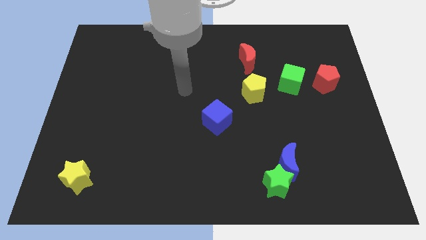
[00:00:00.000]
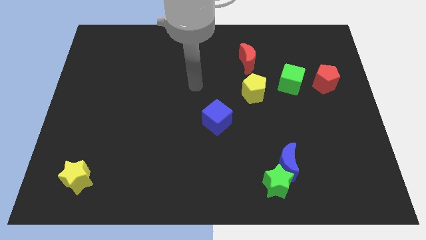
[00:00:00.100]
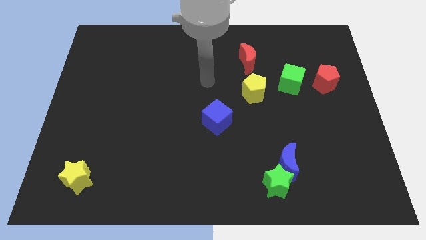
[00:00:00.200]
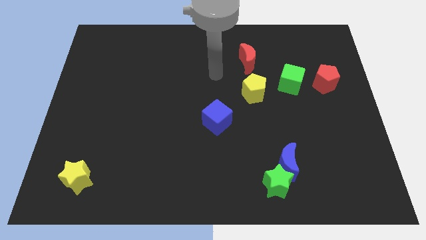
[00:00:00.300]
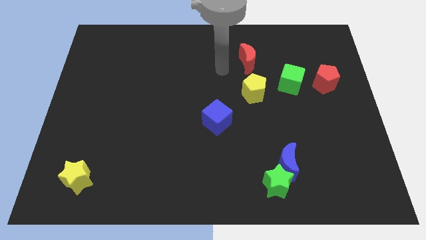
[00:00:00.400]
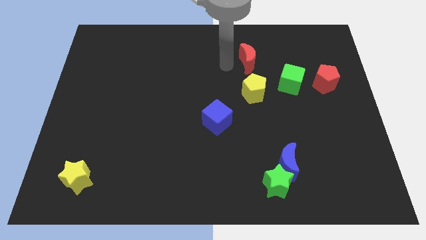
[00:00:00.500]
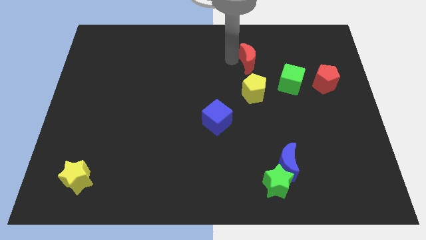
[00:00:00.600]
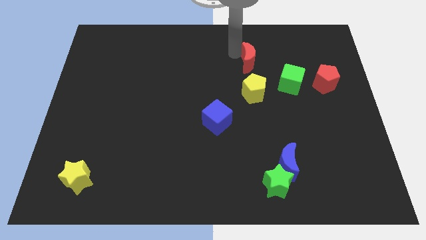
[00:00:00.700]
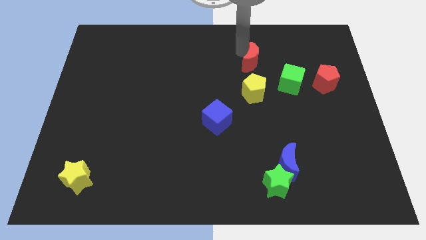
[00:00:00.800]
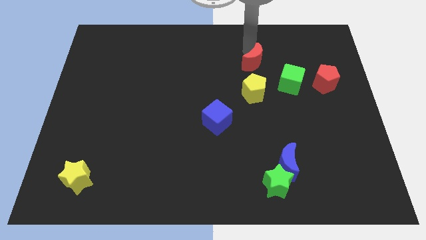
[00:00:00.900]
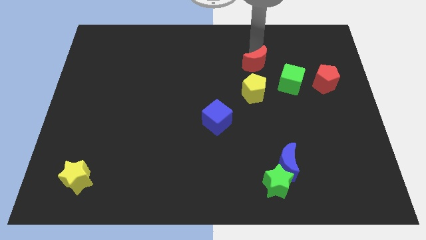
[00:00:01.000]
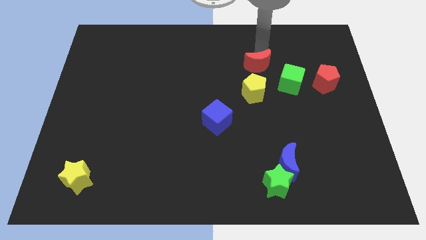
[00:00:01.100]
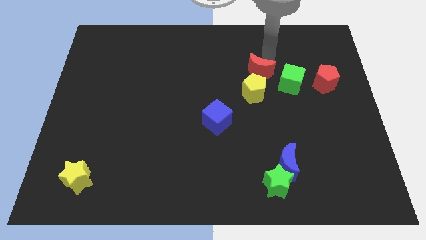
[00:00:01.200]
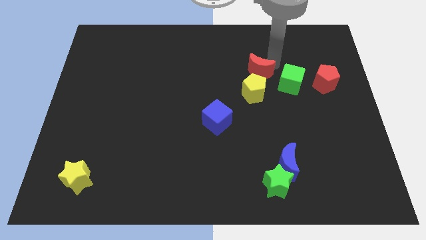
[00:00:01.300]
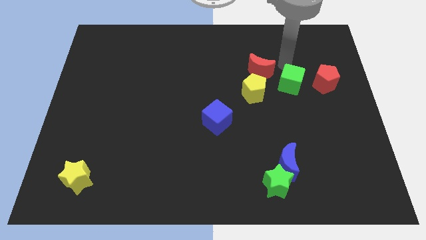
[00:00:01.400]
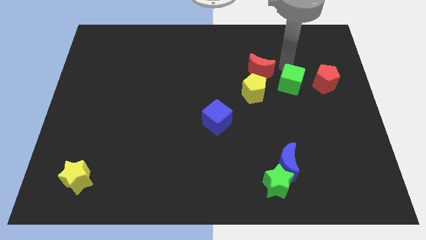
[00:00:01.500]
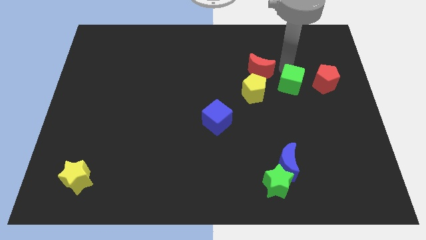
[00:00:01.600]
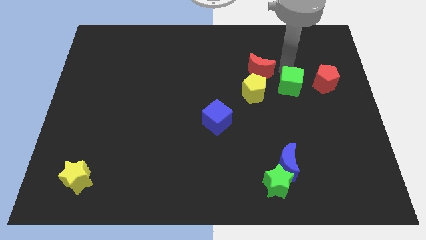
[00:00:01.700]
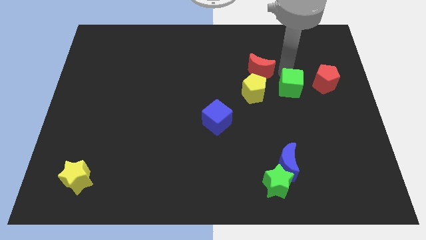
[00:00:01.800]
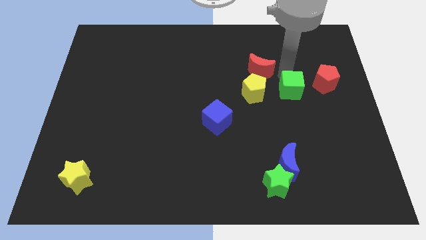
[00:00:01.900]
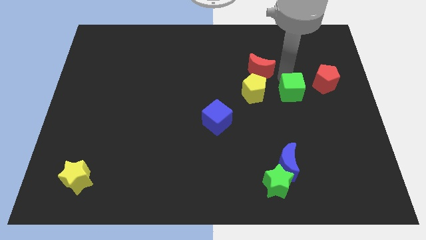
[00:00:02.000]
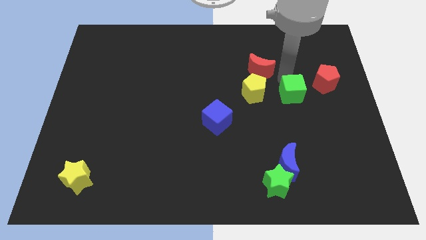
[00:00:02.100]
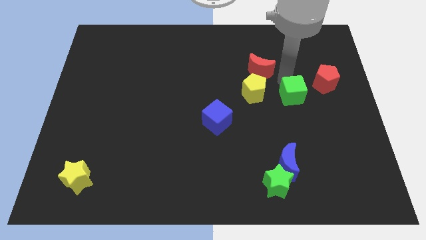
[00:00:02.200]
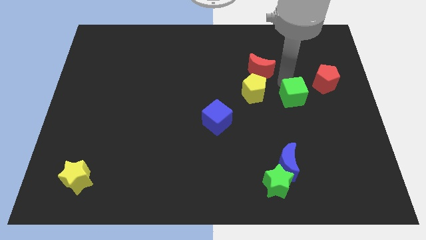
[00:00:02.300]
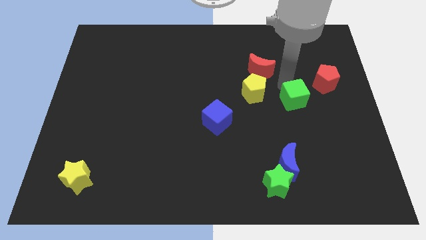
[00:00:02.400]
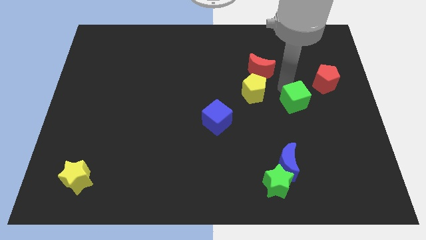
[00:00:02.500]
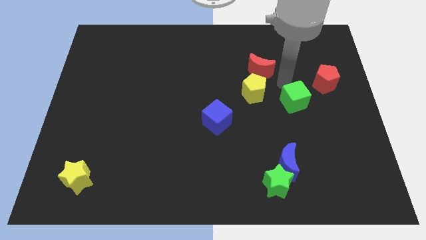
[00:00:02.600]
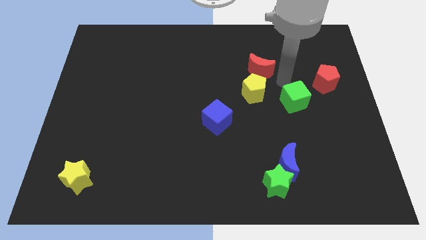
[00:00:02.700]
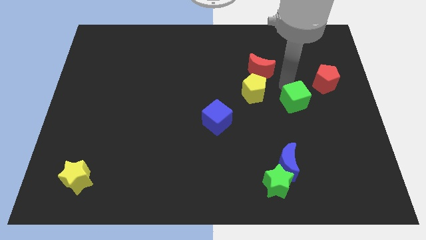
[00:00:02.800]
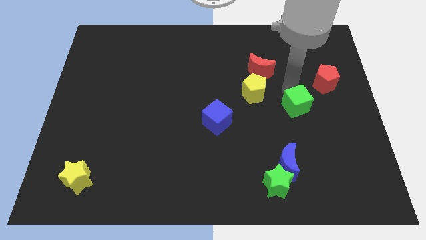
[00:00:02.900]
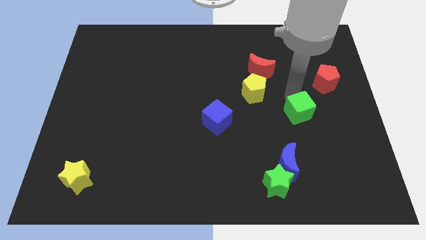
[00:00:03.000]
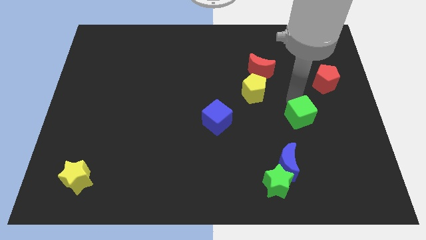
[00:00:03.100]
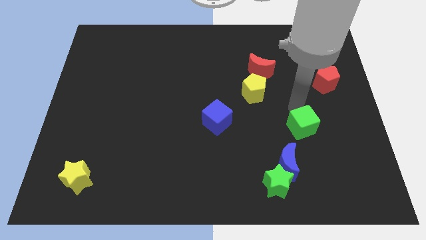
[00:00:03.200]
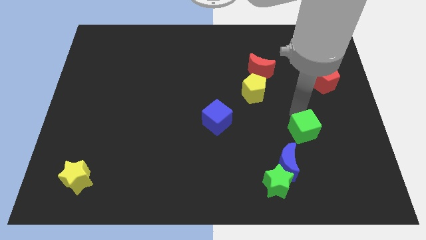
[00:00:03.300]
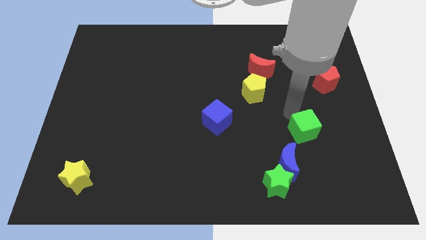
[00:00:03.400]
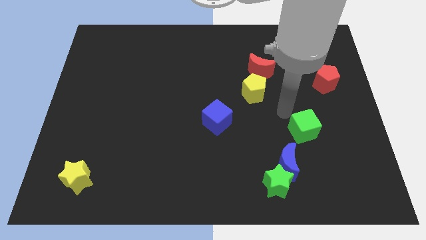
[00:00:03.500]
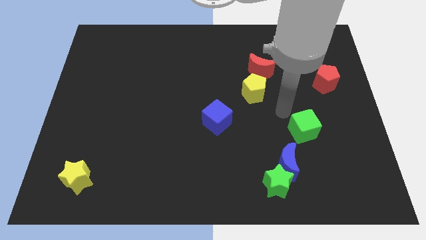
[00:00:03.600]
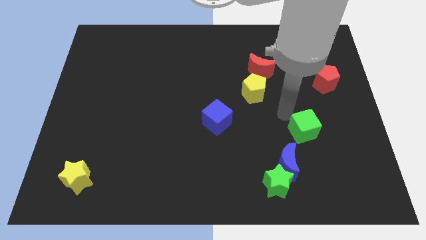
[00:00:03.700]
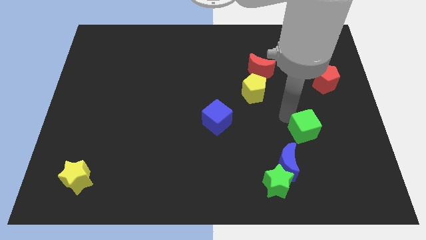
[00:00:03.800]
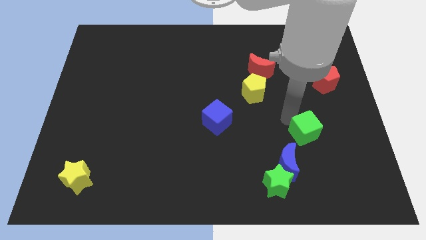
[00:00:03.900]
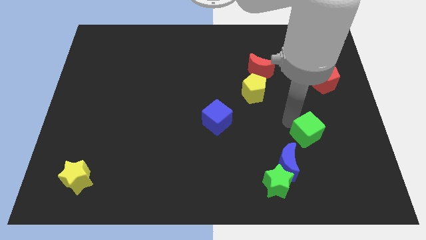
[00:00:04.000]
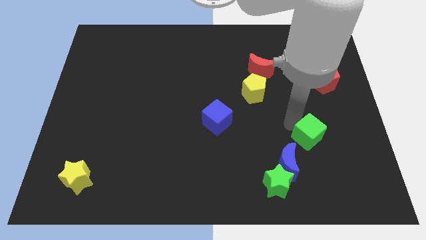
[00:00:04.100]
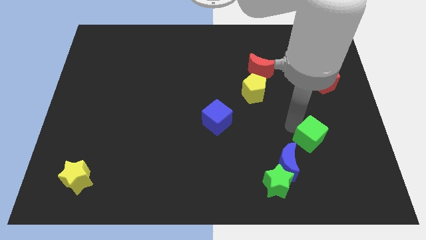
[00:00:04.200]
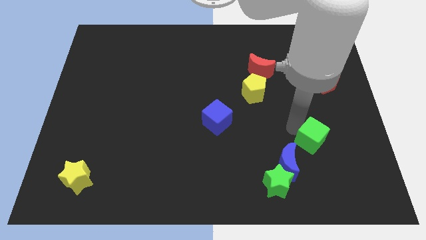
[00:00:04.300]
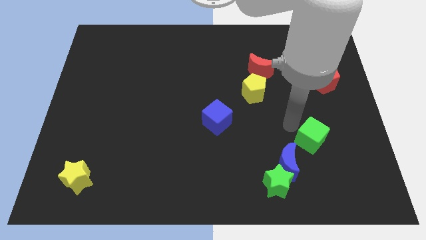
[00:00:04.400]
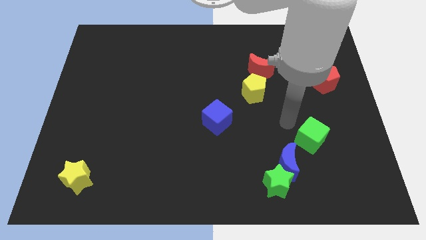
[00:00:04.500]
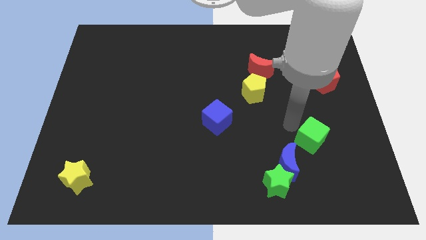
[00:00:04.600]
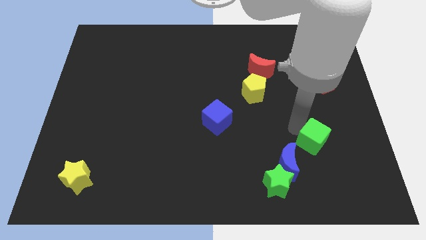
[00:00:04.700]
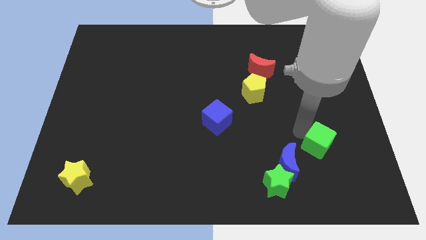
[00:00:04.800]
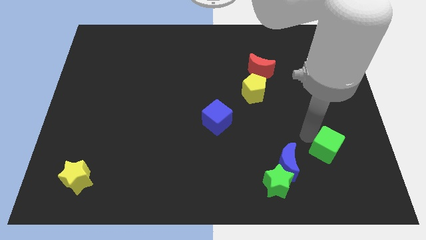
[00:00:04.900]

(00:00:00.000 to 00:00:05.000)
put the green cube to the right side of the blue moon

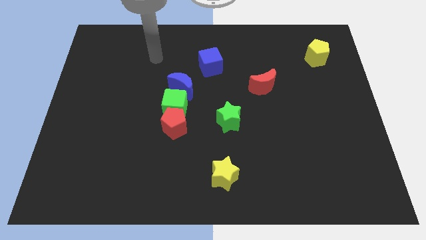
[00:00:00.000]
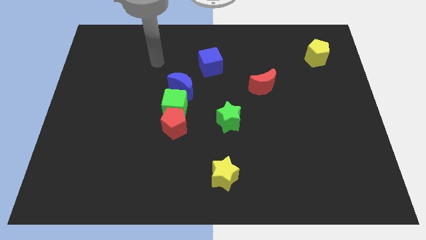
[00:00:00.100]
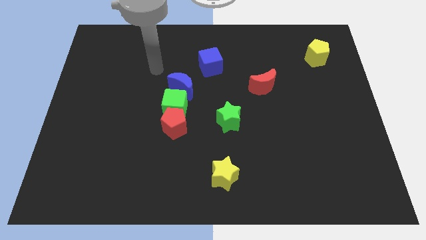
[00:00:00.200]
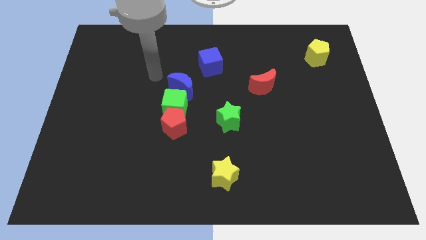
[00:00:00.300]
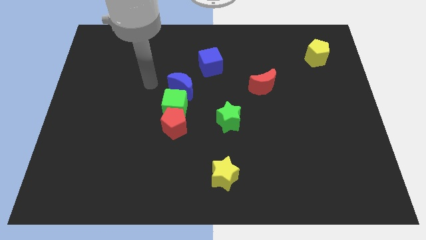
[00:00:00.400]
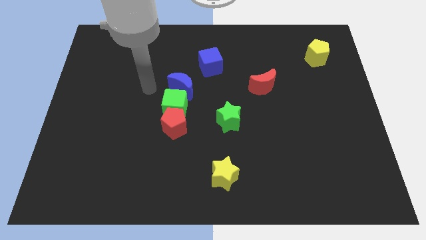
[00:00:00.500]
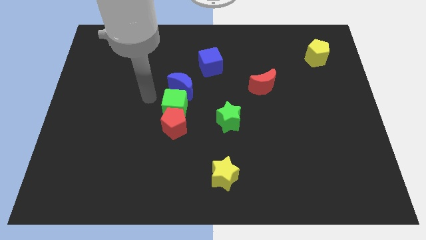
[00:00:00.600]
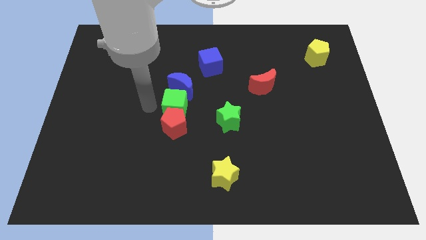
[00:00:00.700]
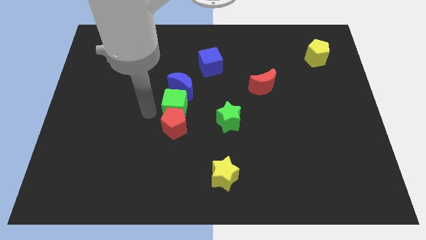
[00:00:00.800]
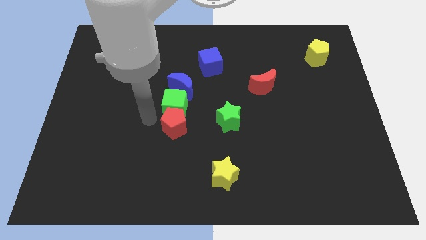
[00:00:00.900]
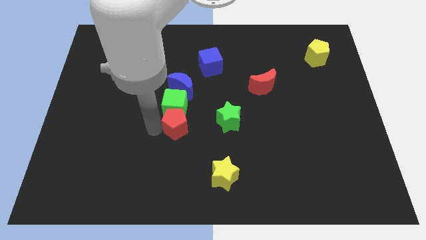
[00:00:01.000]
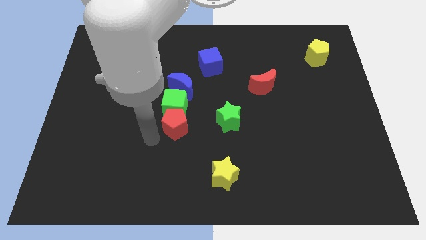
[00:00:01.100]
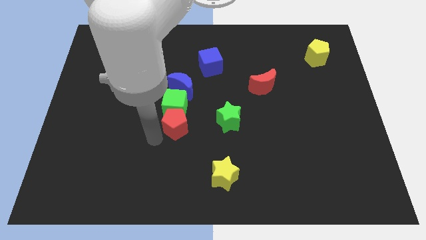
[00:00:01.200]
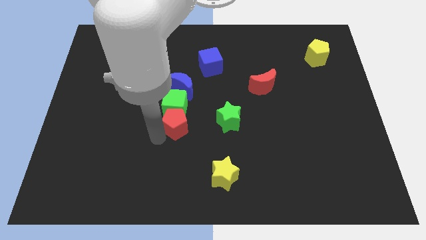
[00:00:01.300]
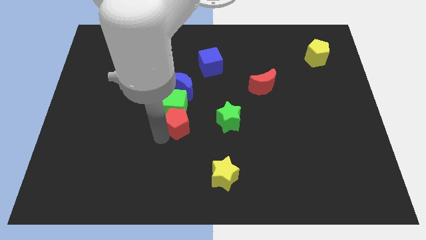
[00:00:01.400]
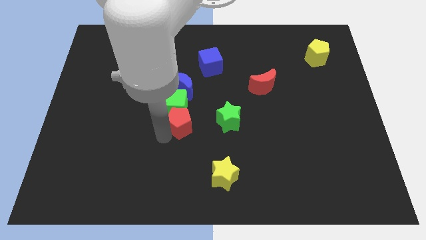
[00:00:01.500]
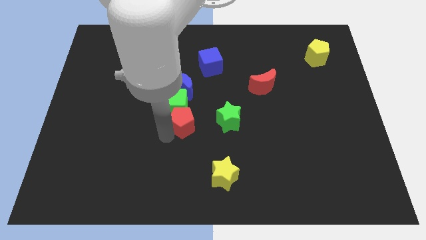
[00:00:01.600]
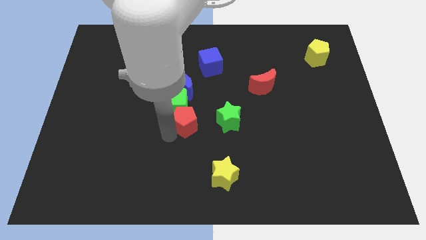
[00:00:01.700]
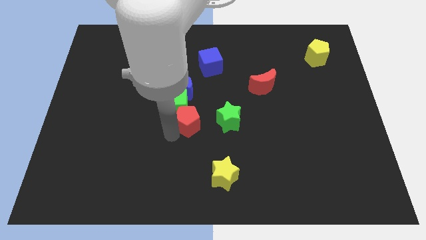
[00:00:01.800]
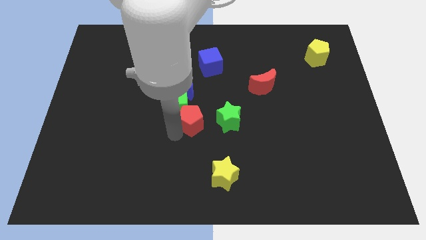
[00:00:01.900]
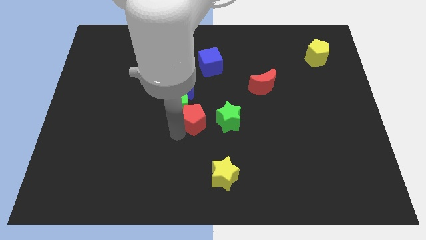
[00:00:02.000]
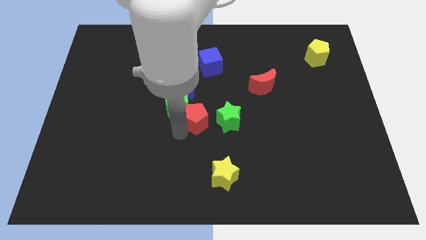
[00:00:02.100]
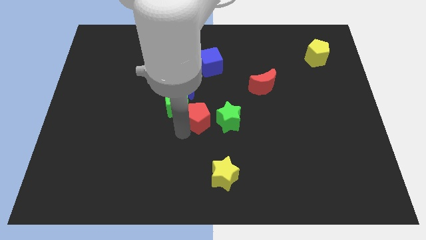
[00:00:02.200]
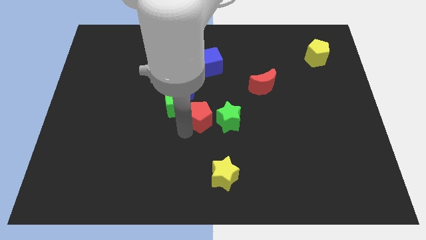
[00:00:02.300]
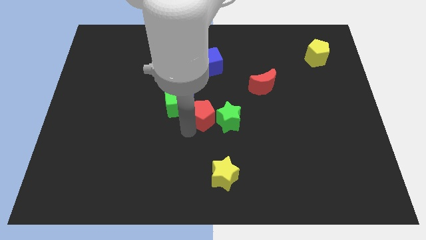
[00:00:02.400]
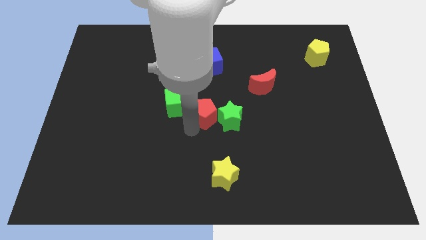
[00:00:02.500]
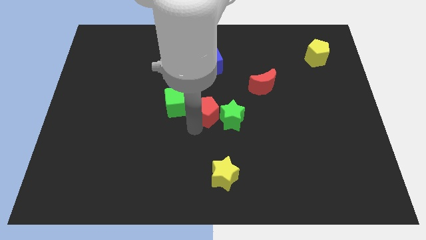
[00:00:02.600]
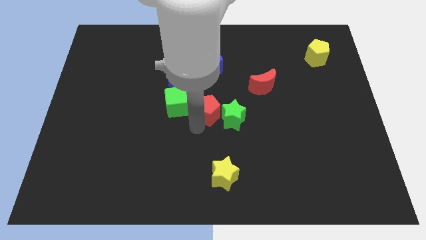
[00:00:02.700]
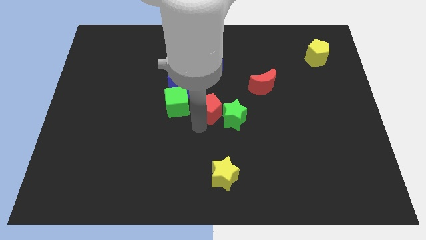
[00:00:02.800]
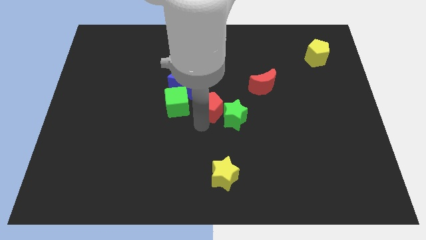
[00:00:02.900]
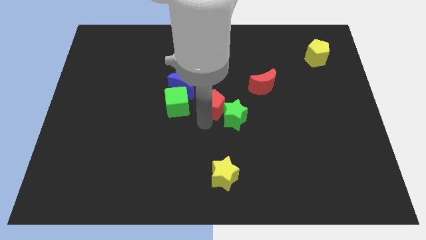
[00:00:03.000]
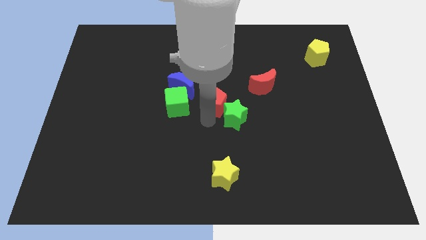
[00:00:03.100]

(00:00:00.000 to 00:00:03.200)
slide the red pentagon to the top of the green star
